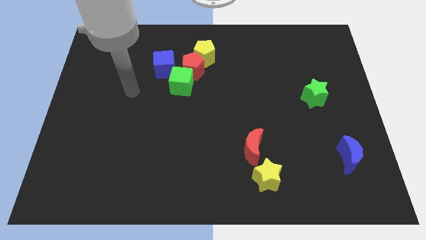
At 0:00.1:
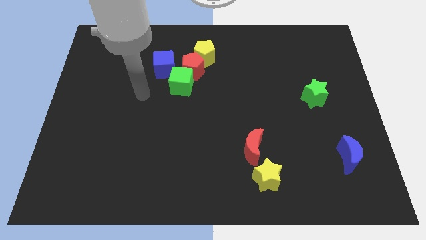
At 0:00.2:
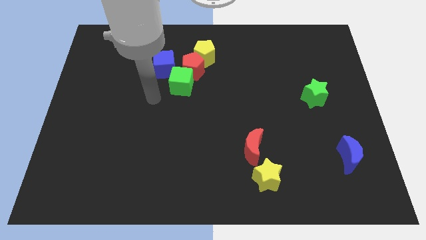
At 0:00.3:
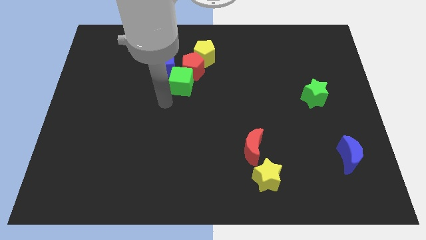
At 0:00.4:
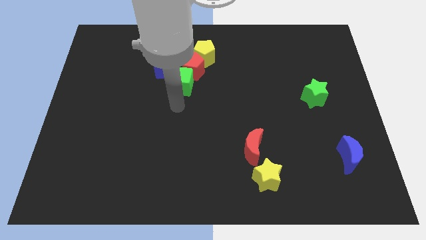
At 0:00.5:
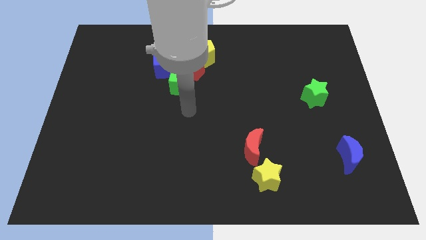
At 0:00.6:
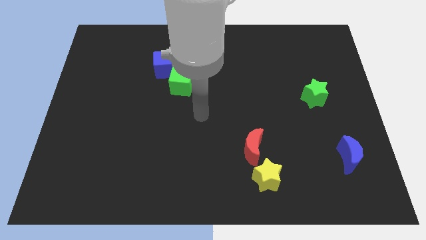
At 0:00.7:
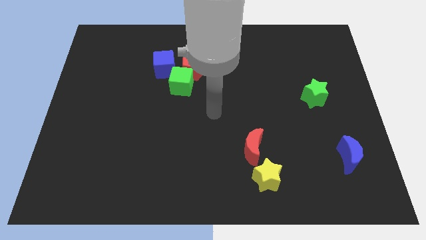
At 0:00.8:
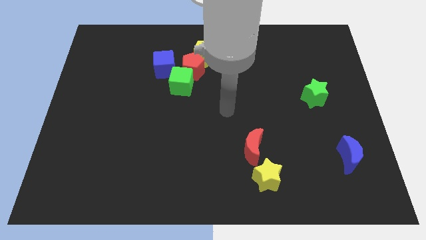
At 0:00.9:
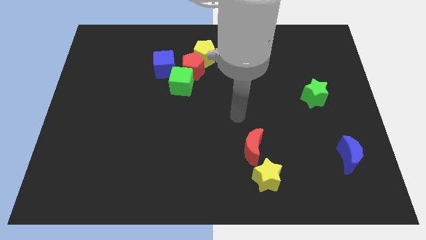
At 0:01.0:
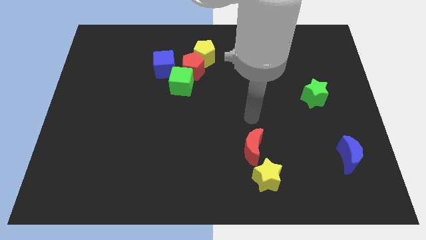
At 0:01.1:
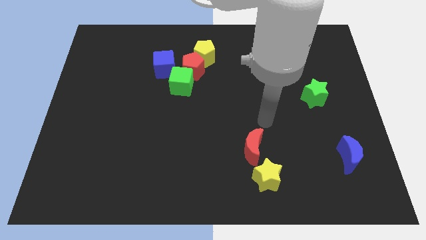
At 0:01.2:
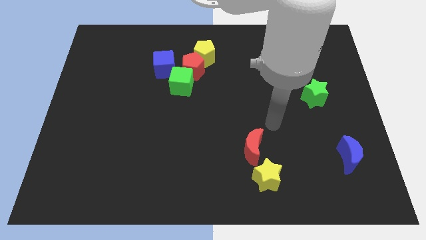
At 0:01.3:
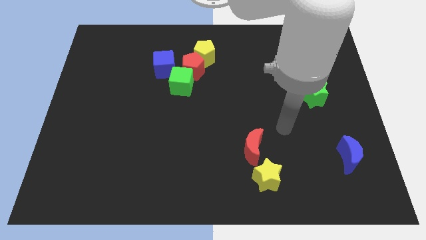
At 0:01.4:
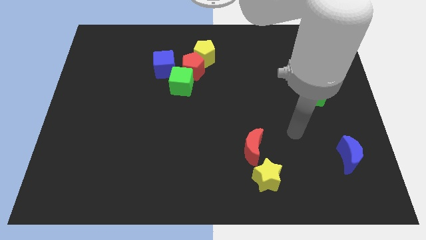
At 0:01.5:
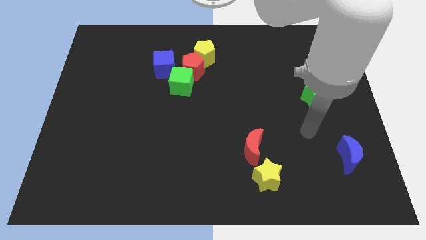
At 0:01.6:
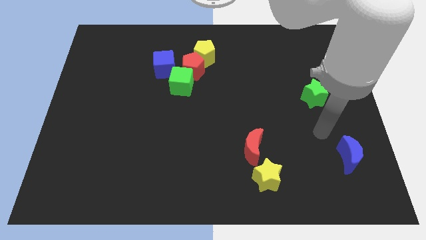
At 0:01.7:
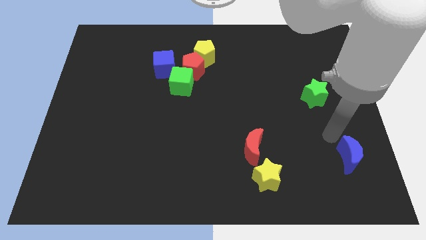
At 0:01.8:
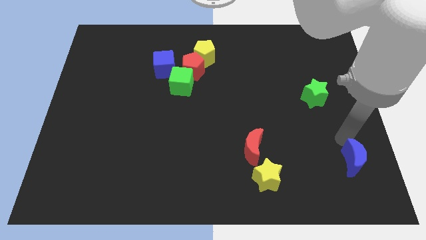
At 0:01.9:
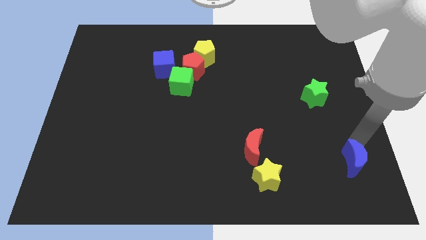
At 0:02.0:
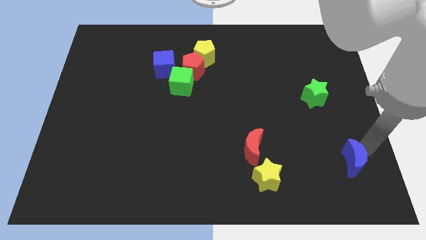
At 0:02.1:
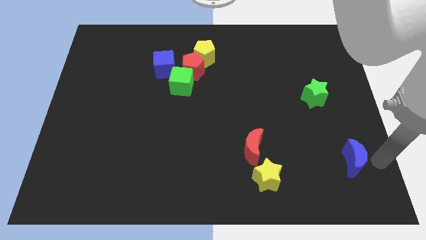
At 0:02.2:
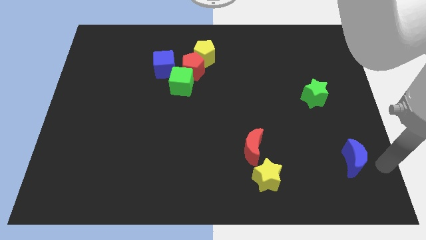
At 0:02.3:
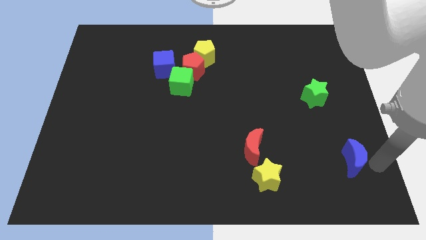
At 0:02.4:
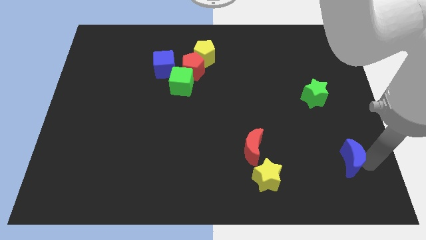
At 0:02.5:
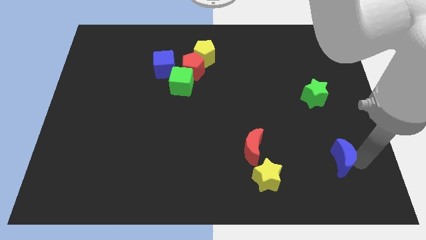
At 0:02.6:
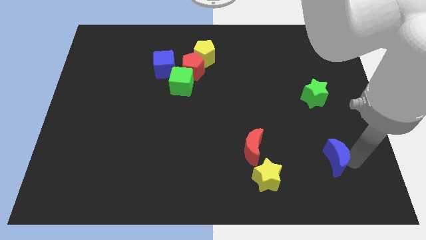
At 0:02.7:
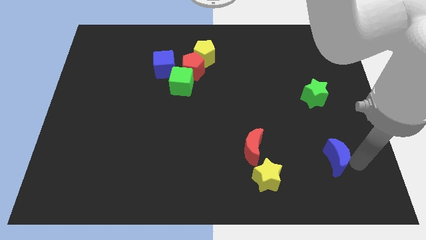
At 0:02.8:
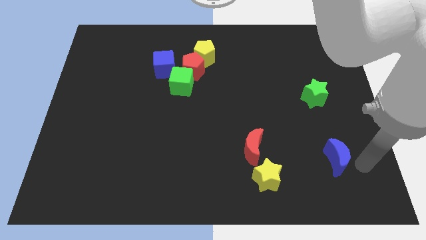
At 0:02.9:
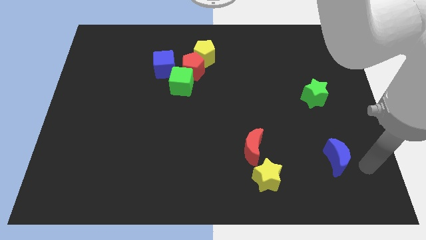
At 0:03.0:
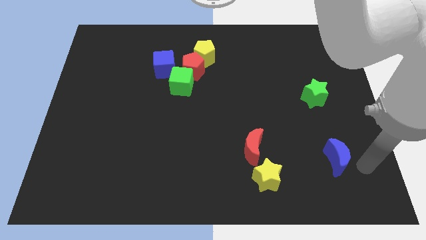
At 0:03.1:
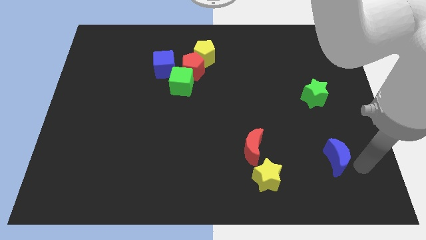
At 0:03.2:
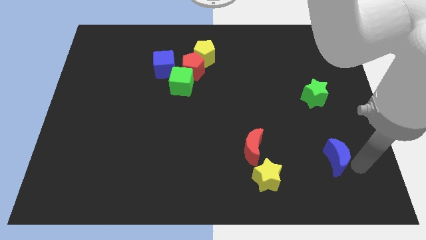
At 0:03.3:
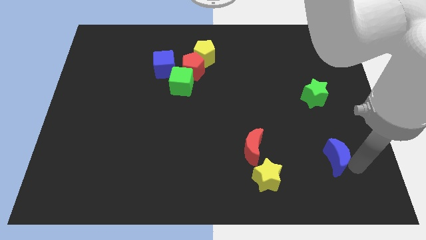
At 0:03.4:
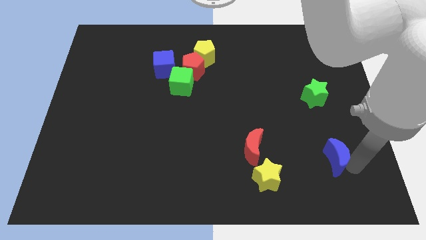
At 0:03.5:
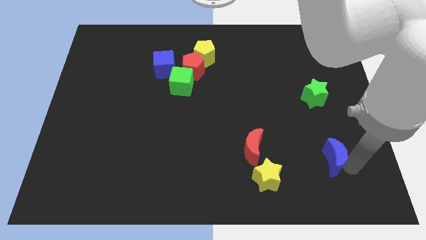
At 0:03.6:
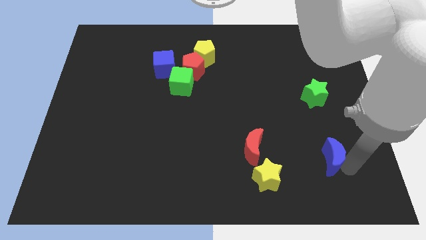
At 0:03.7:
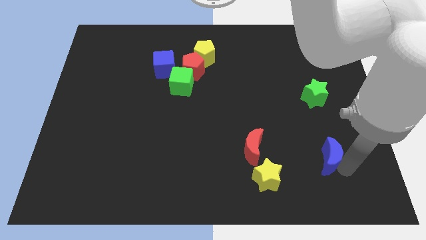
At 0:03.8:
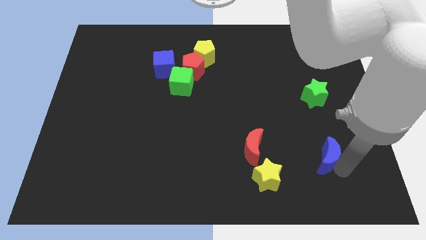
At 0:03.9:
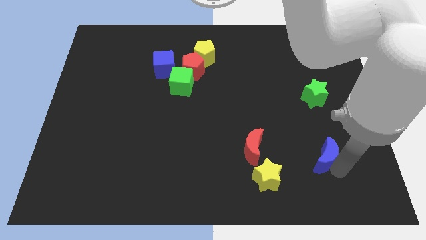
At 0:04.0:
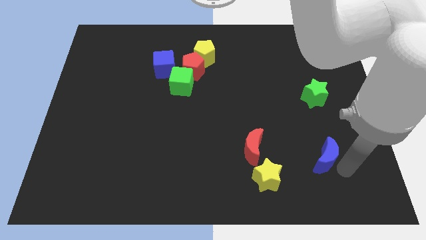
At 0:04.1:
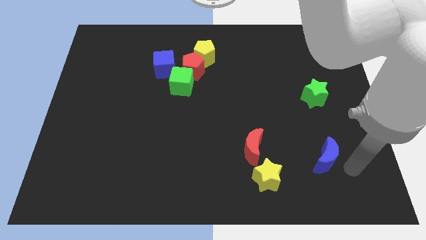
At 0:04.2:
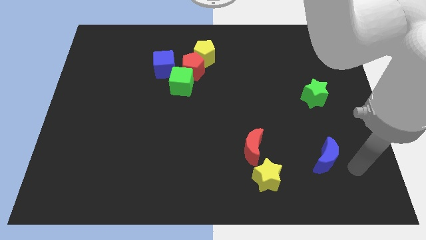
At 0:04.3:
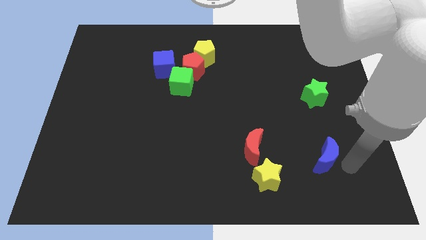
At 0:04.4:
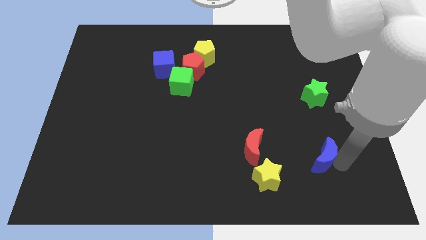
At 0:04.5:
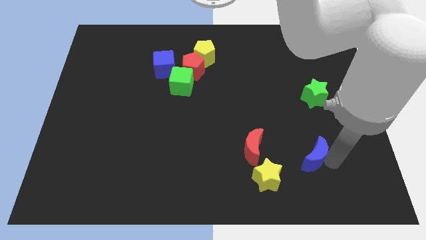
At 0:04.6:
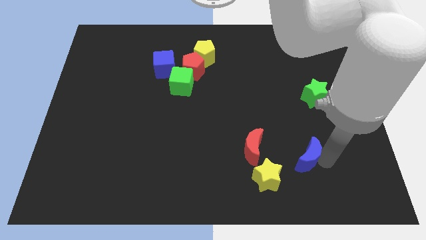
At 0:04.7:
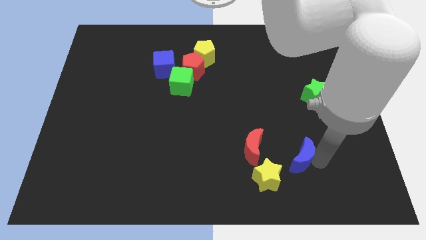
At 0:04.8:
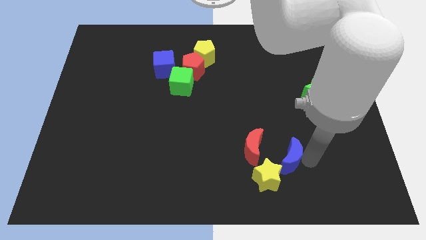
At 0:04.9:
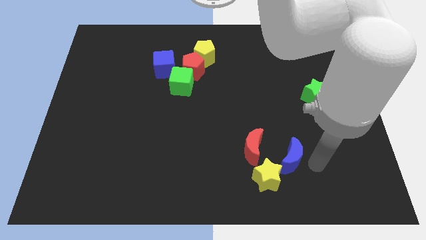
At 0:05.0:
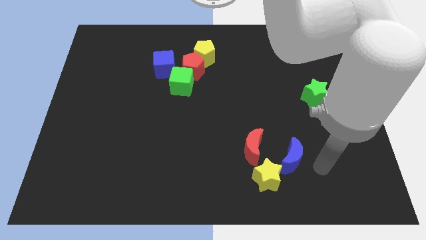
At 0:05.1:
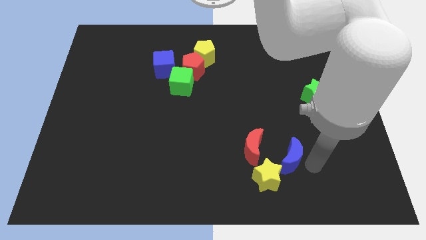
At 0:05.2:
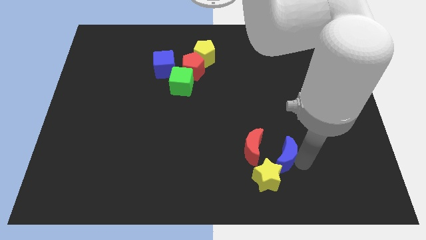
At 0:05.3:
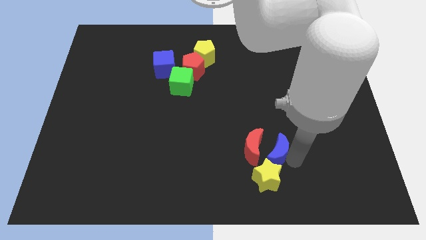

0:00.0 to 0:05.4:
move the blue moon to the red moon

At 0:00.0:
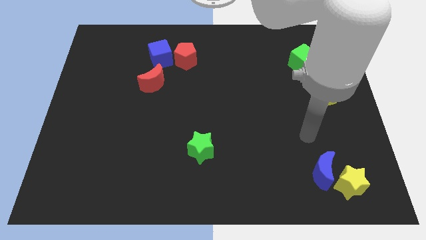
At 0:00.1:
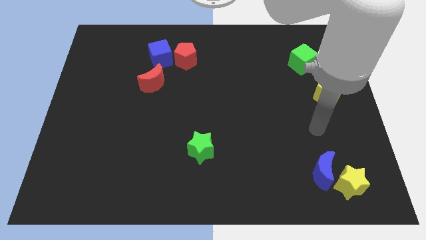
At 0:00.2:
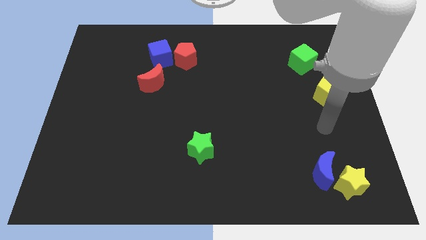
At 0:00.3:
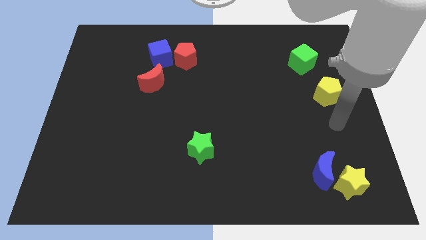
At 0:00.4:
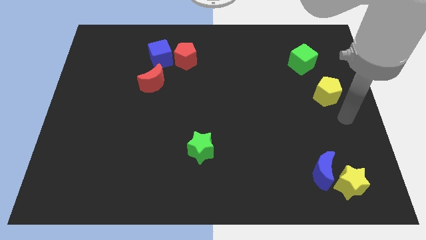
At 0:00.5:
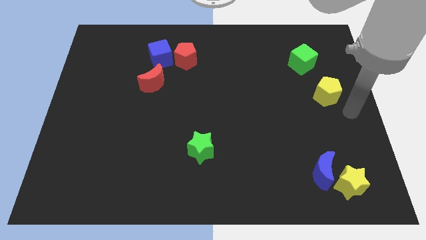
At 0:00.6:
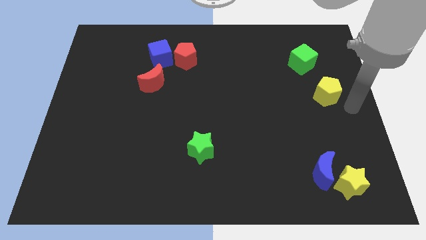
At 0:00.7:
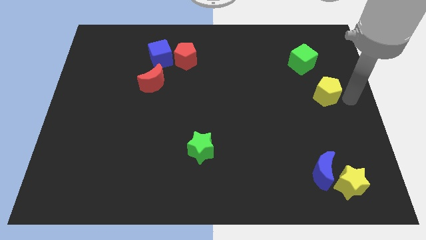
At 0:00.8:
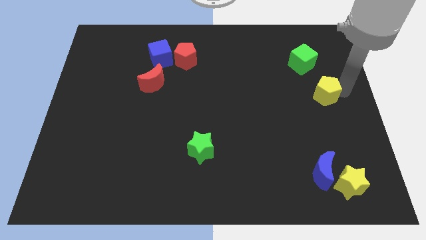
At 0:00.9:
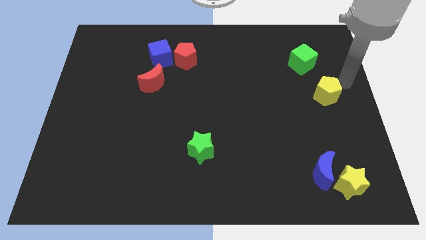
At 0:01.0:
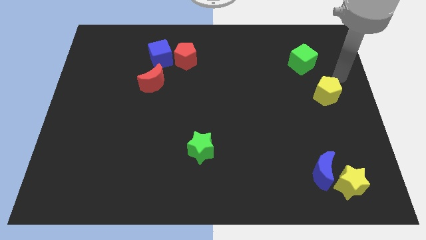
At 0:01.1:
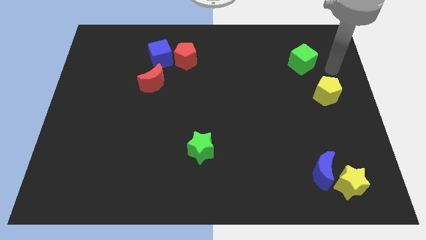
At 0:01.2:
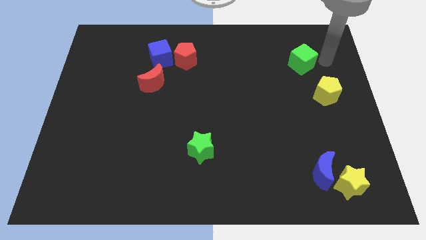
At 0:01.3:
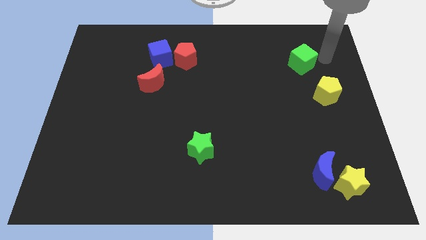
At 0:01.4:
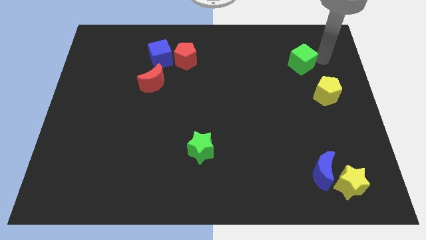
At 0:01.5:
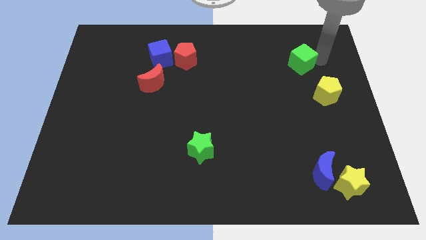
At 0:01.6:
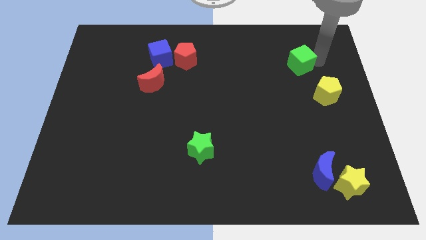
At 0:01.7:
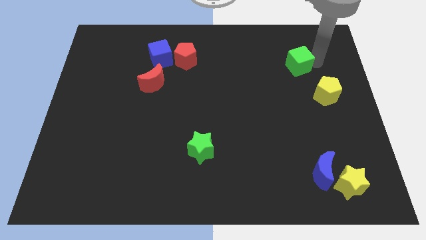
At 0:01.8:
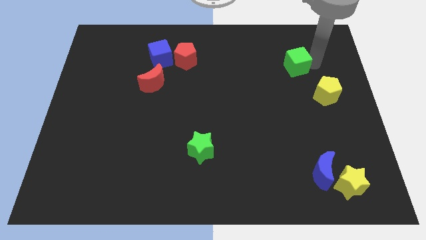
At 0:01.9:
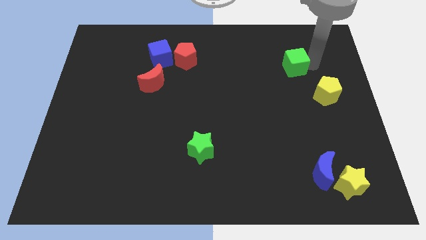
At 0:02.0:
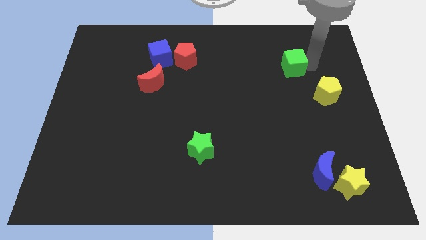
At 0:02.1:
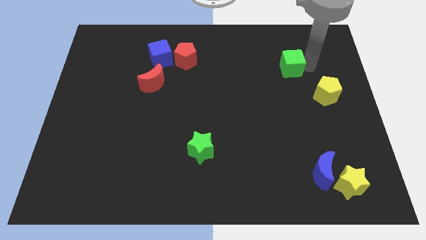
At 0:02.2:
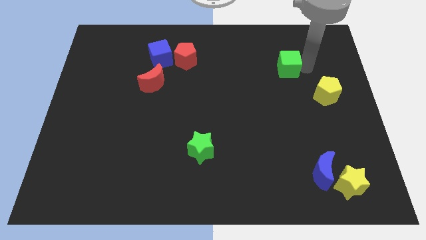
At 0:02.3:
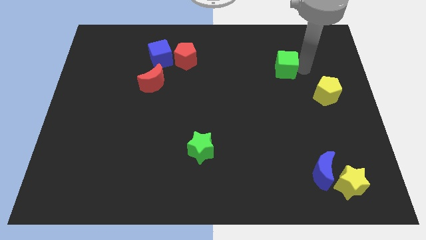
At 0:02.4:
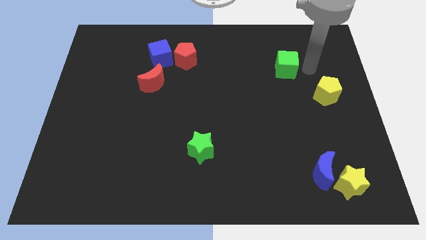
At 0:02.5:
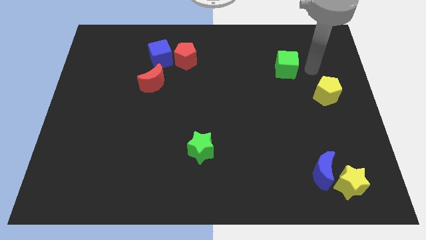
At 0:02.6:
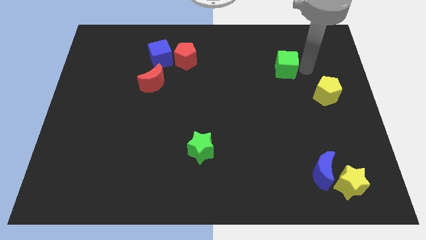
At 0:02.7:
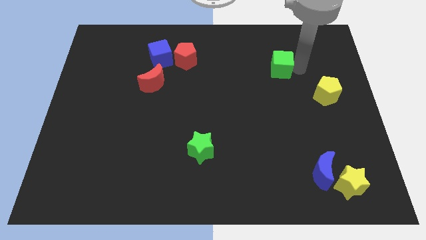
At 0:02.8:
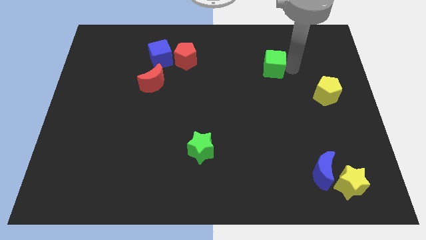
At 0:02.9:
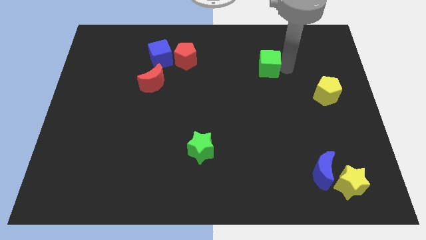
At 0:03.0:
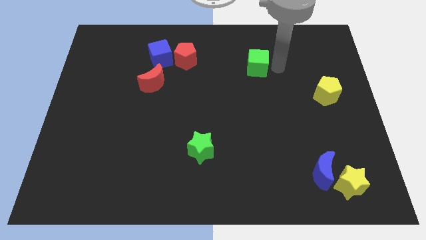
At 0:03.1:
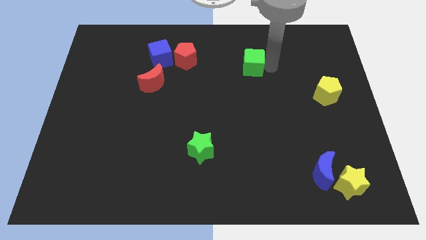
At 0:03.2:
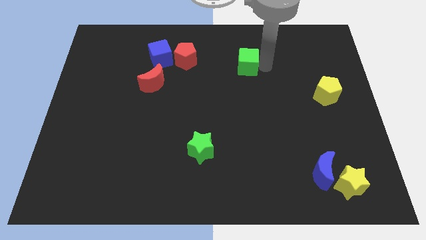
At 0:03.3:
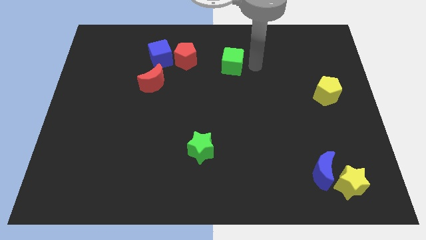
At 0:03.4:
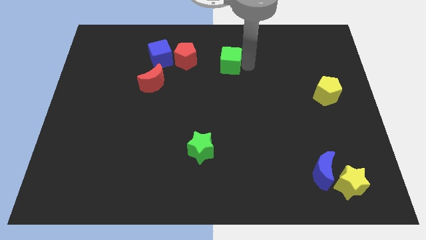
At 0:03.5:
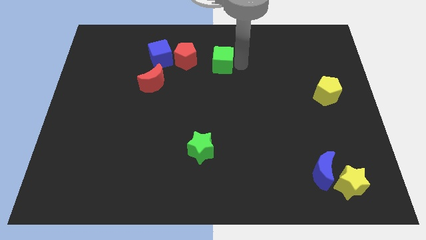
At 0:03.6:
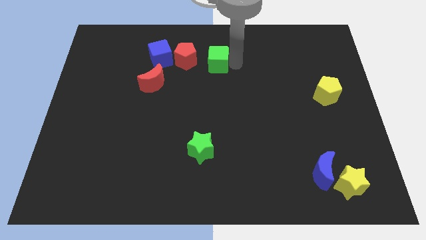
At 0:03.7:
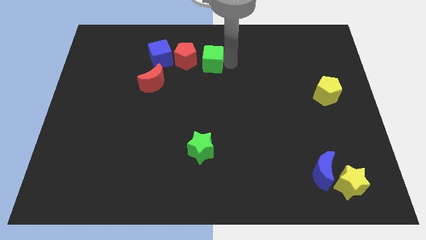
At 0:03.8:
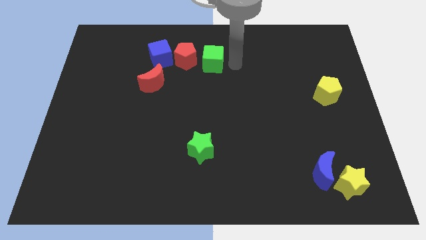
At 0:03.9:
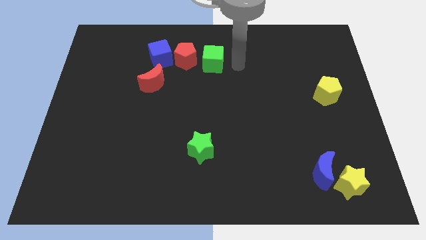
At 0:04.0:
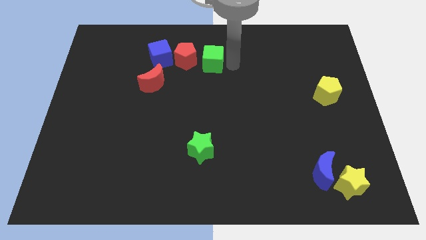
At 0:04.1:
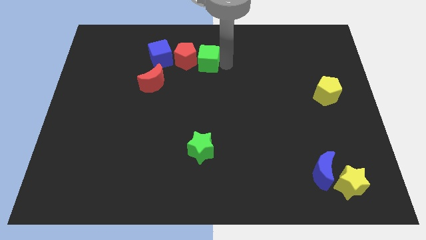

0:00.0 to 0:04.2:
move the green cube next to the red pentagon
